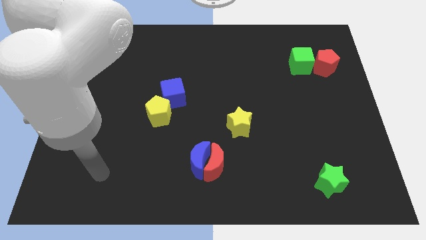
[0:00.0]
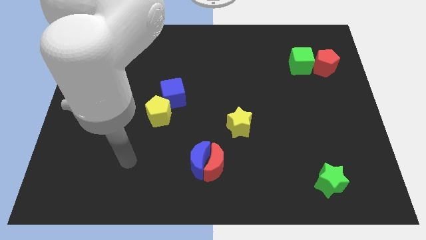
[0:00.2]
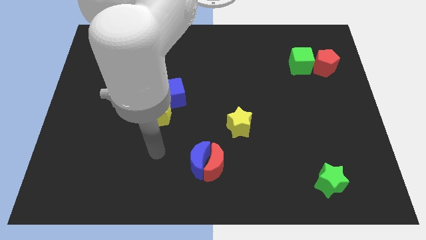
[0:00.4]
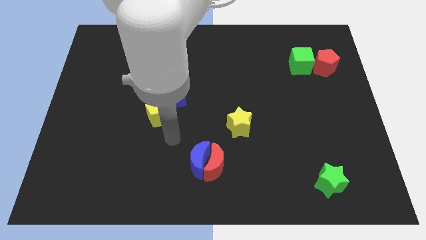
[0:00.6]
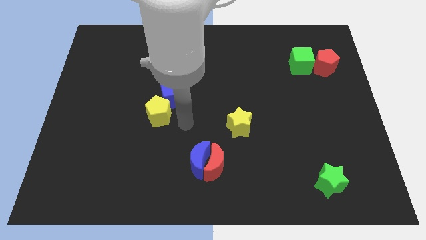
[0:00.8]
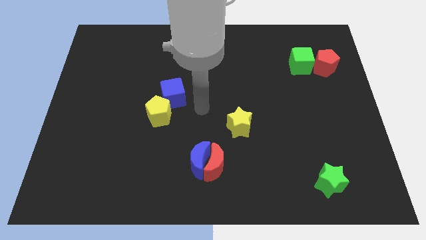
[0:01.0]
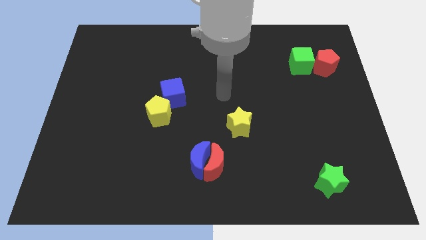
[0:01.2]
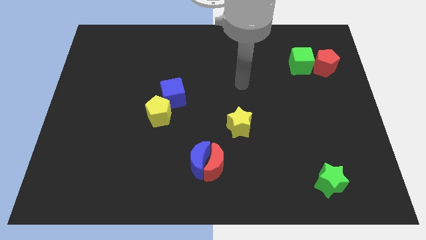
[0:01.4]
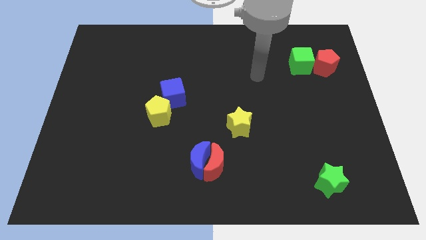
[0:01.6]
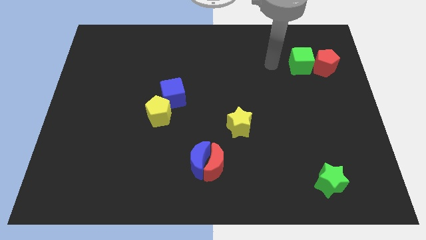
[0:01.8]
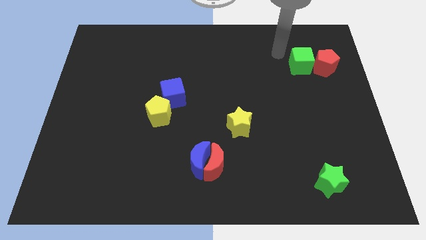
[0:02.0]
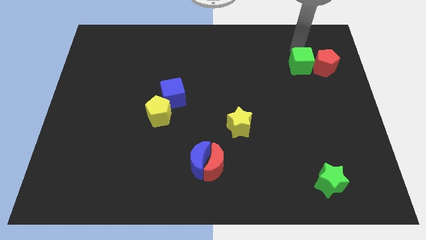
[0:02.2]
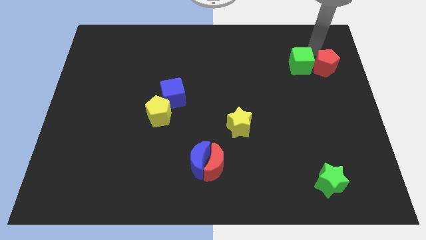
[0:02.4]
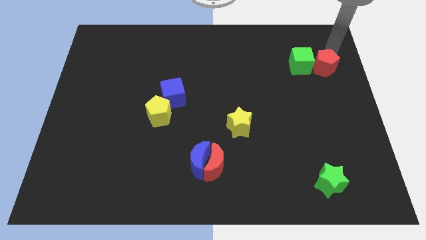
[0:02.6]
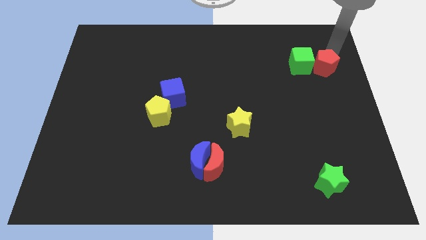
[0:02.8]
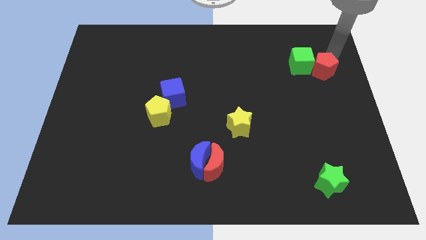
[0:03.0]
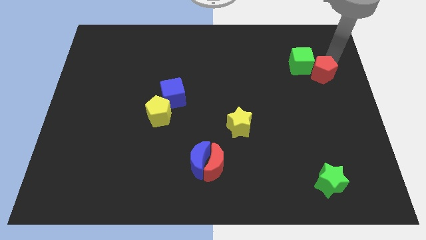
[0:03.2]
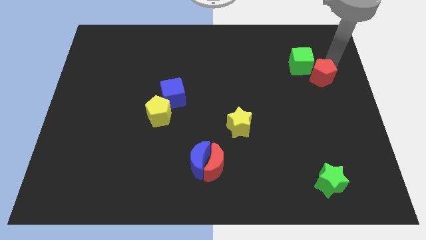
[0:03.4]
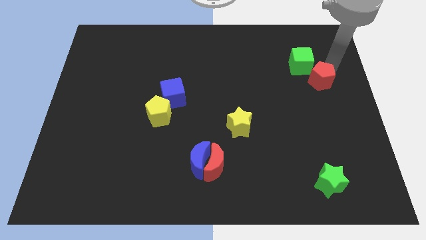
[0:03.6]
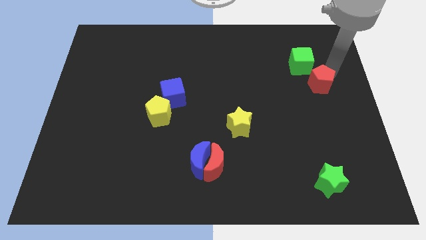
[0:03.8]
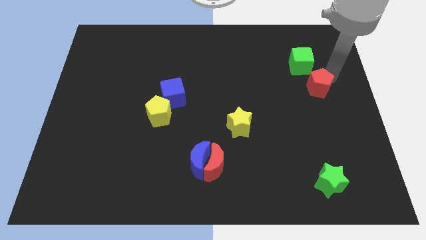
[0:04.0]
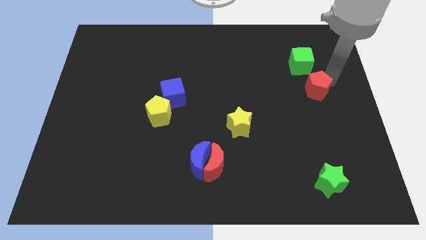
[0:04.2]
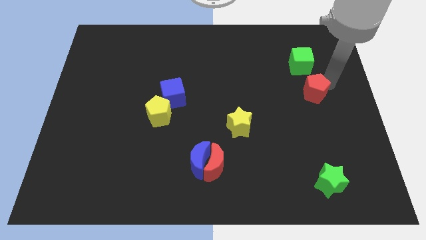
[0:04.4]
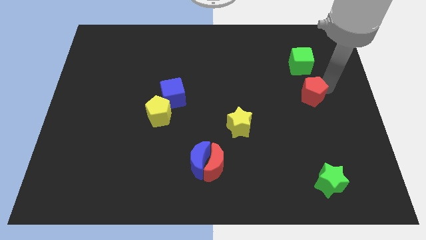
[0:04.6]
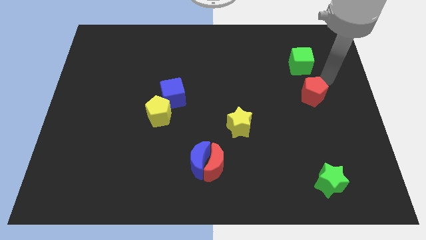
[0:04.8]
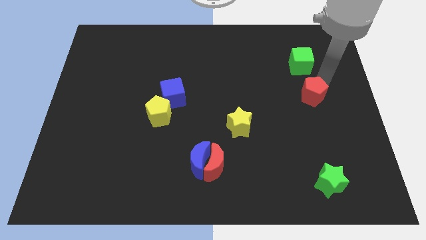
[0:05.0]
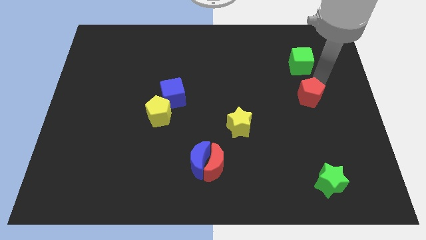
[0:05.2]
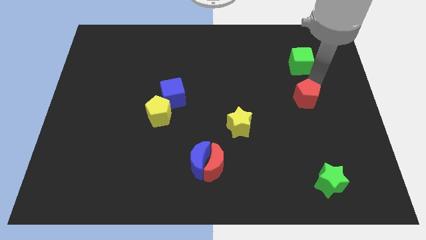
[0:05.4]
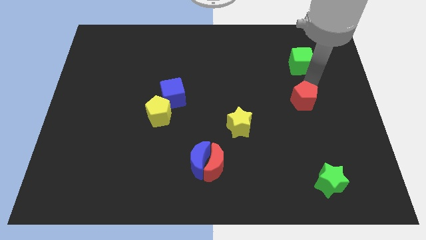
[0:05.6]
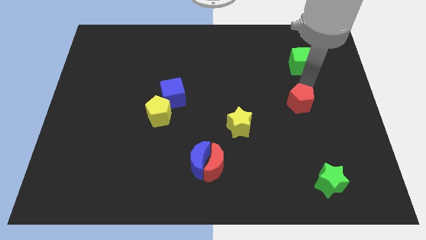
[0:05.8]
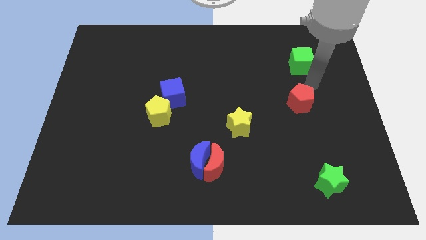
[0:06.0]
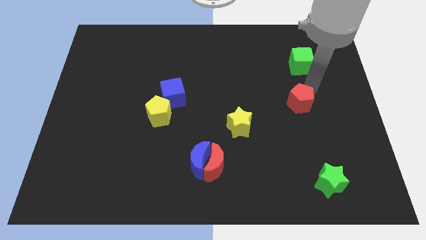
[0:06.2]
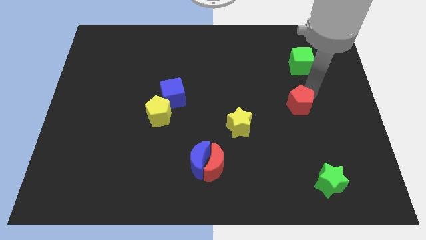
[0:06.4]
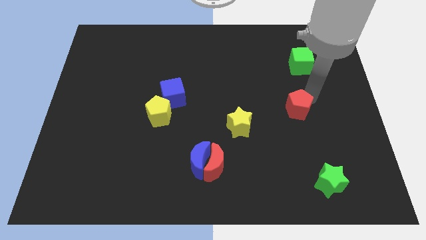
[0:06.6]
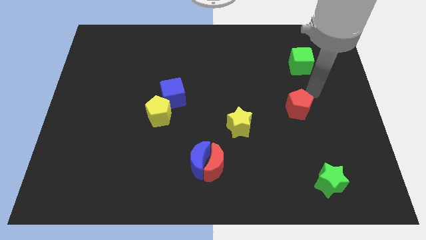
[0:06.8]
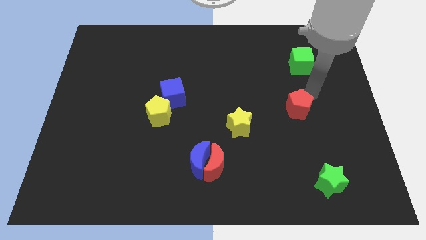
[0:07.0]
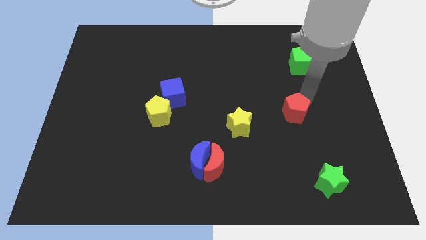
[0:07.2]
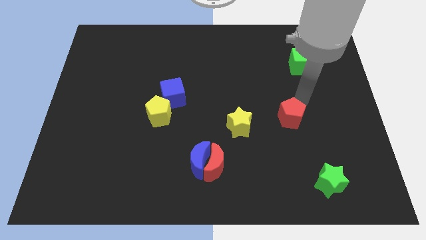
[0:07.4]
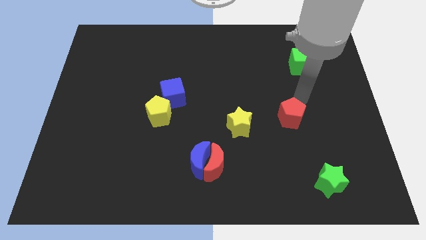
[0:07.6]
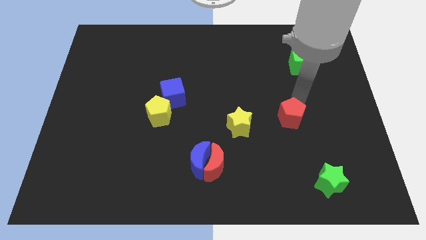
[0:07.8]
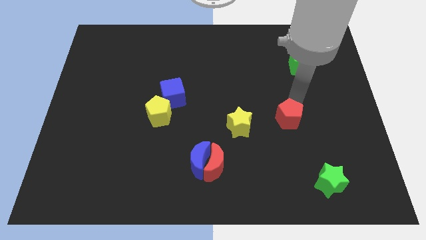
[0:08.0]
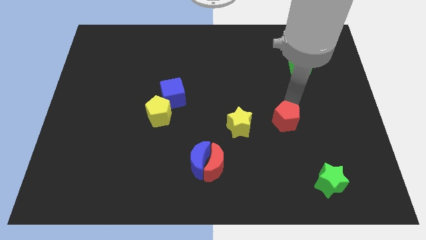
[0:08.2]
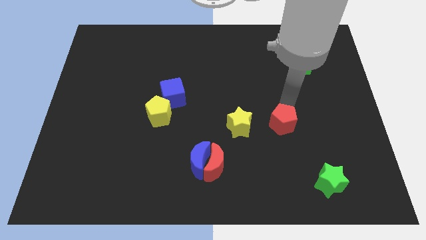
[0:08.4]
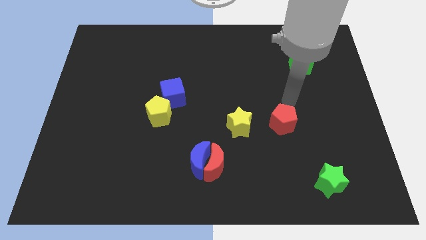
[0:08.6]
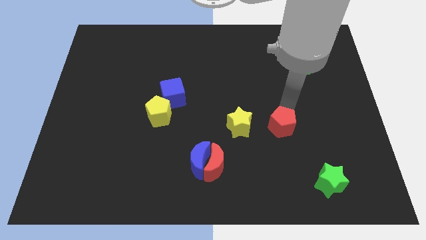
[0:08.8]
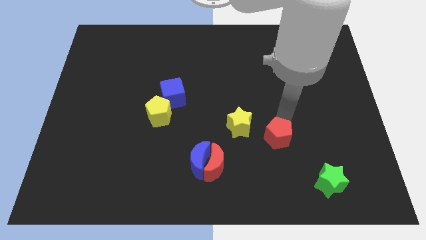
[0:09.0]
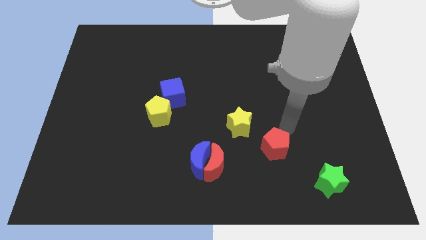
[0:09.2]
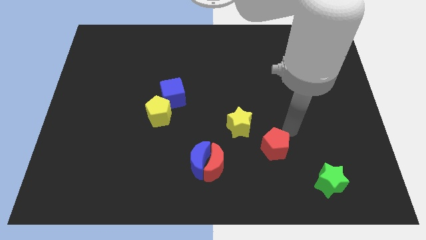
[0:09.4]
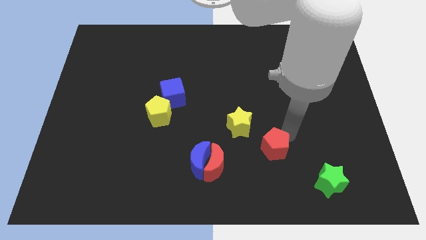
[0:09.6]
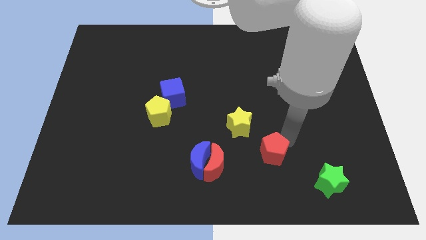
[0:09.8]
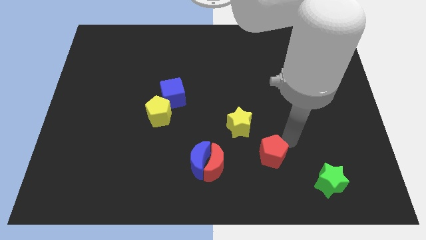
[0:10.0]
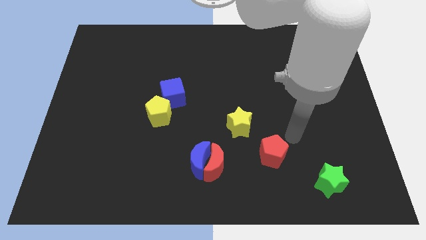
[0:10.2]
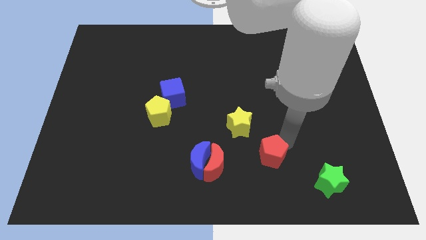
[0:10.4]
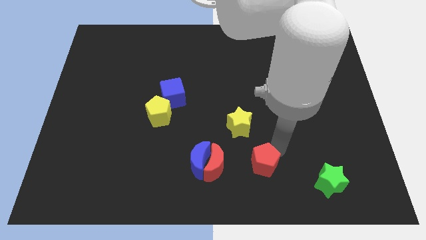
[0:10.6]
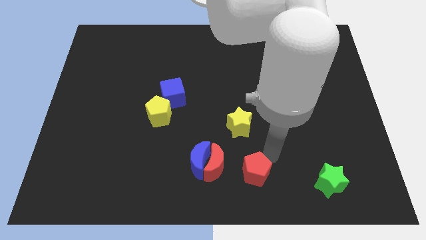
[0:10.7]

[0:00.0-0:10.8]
slide the red pentagon to the bottom side

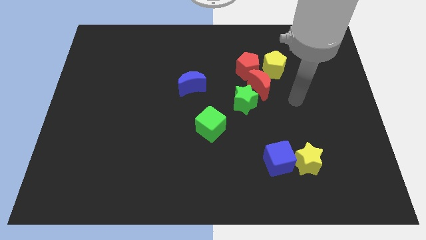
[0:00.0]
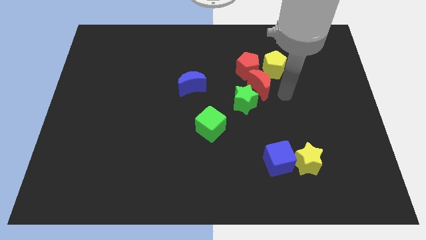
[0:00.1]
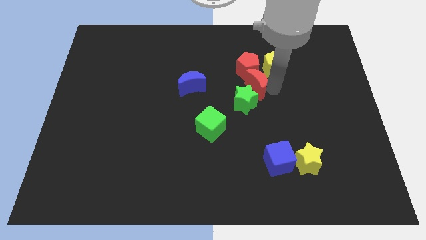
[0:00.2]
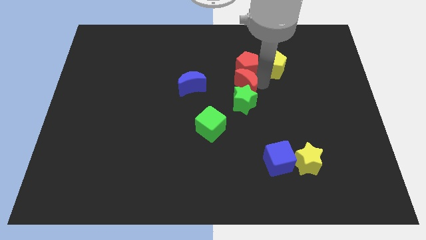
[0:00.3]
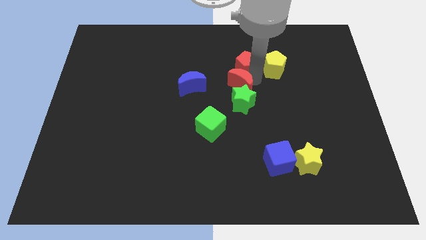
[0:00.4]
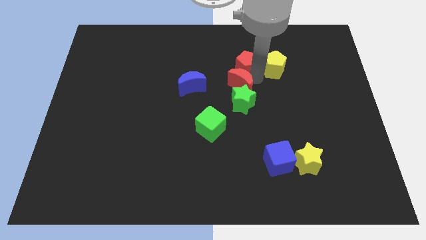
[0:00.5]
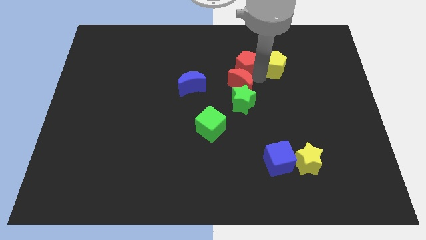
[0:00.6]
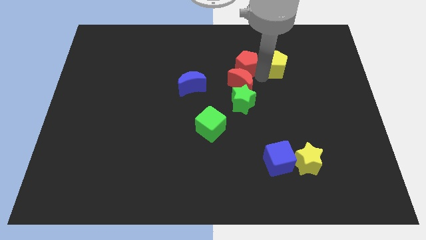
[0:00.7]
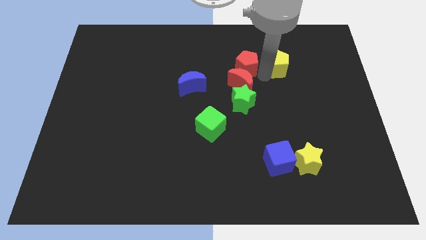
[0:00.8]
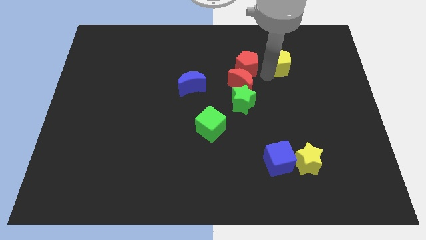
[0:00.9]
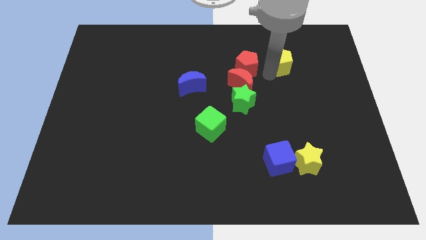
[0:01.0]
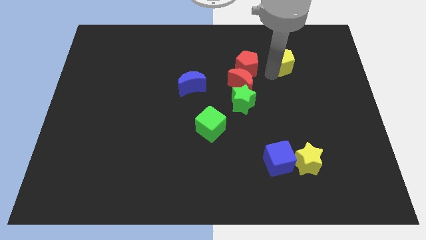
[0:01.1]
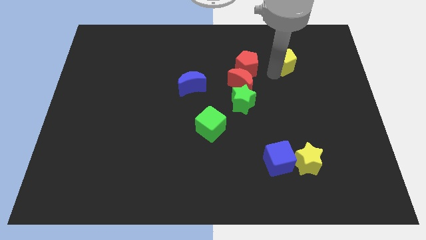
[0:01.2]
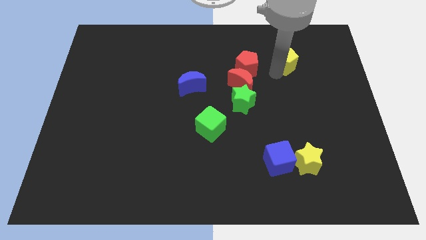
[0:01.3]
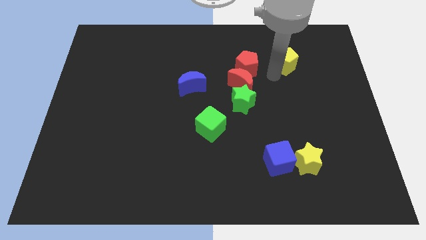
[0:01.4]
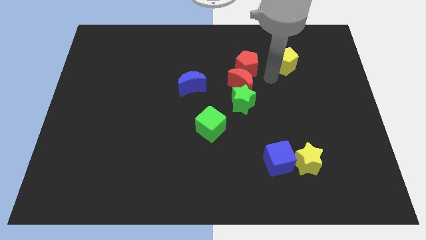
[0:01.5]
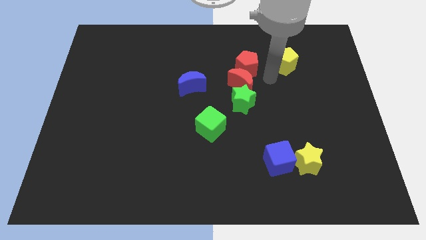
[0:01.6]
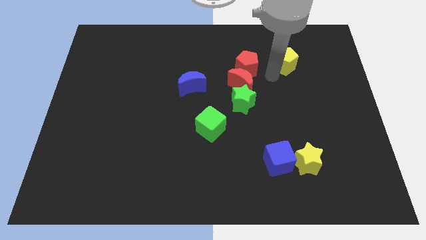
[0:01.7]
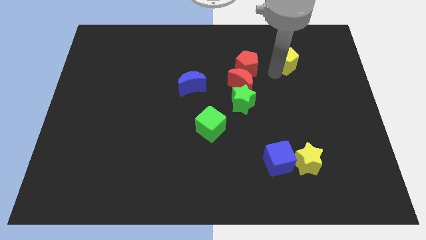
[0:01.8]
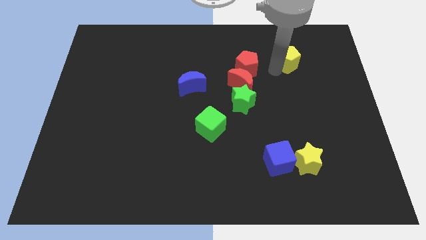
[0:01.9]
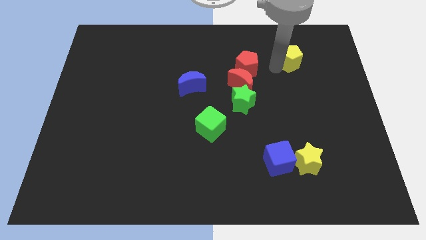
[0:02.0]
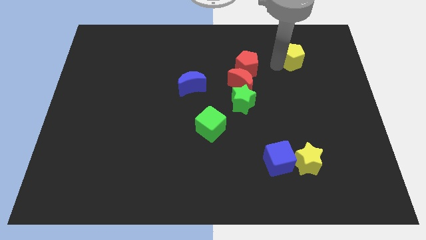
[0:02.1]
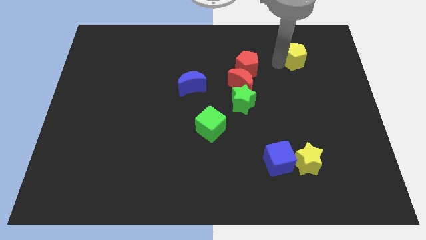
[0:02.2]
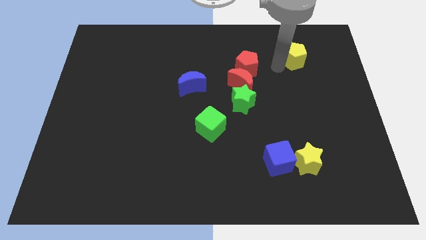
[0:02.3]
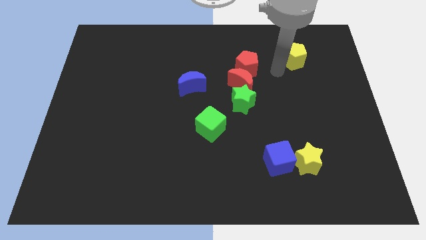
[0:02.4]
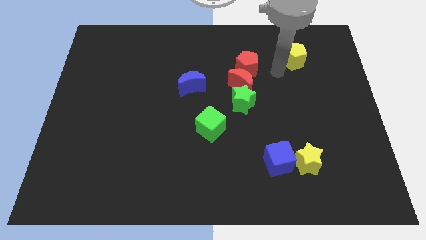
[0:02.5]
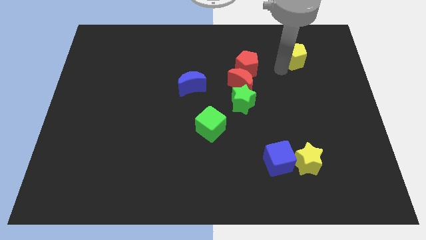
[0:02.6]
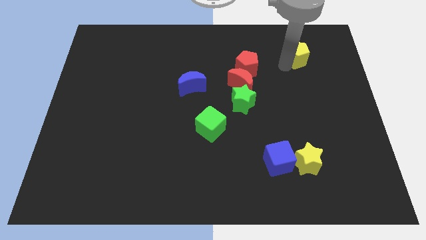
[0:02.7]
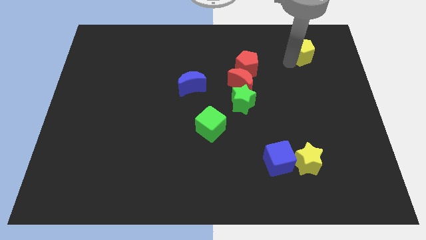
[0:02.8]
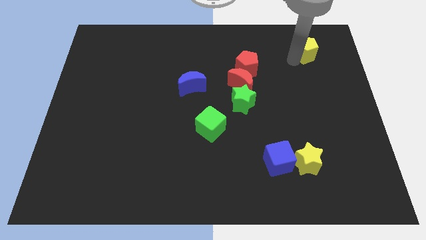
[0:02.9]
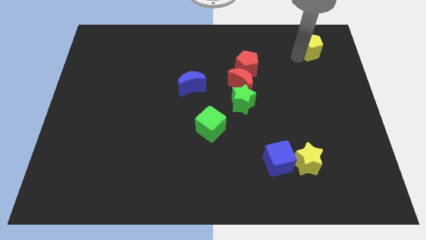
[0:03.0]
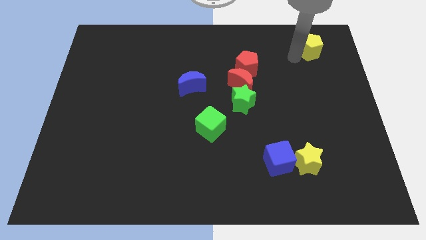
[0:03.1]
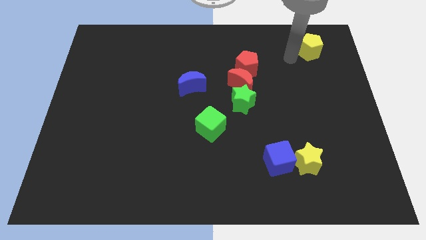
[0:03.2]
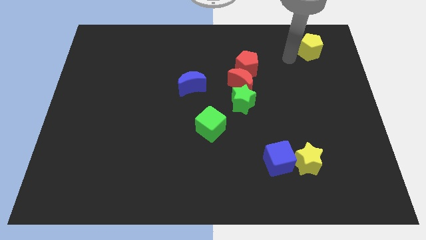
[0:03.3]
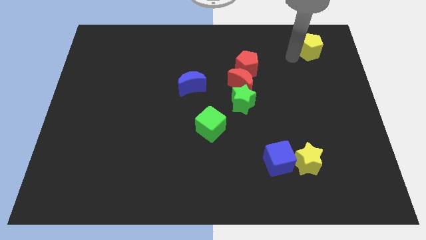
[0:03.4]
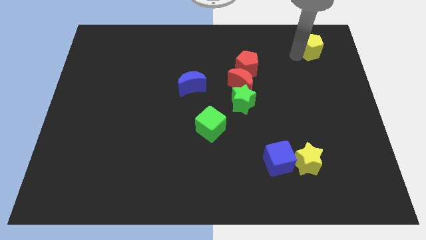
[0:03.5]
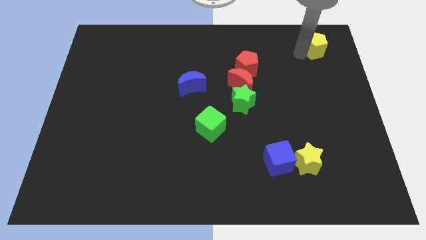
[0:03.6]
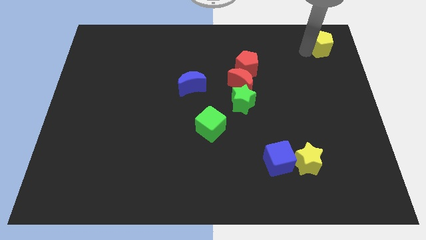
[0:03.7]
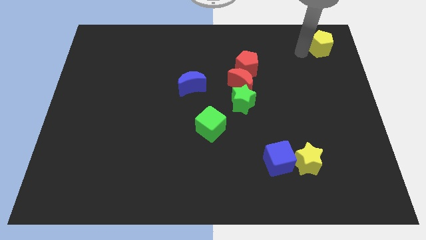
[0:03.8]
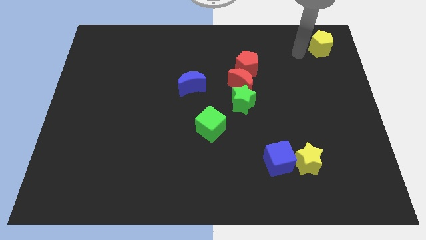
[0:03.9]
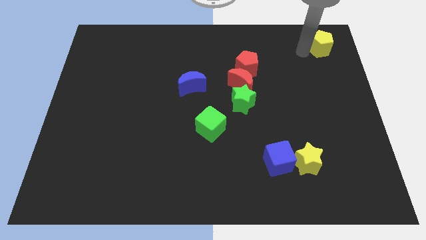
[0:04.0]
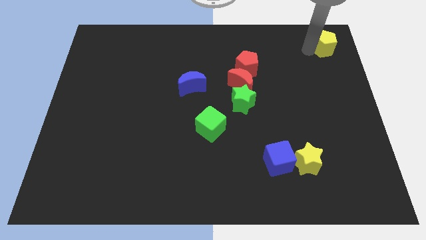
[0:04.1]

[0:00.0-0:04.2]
slide the yellow pentagon to the top right corner
